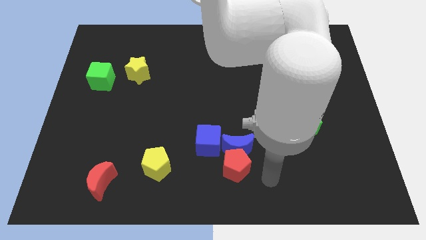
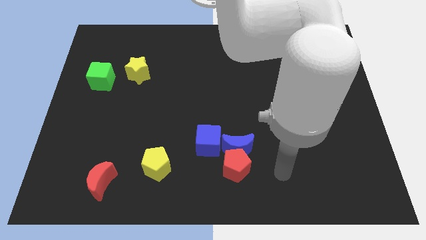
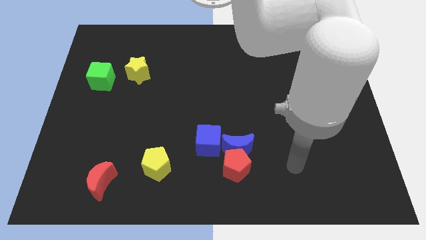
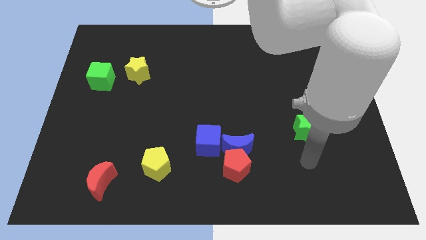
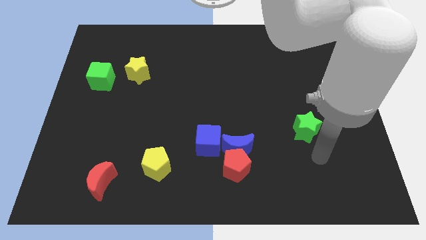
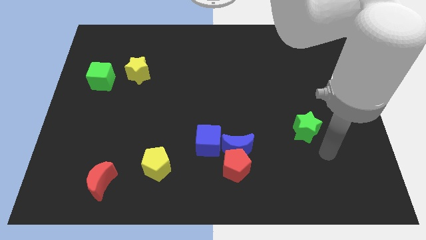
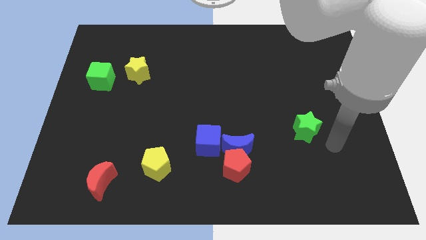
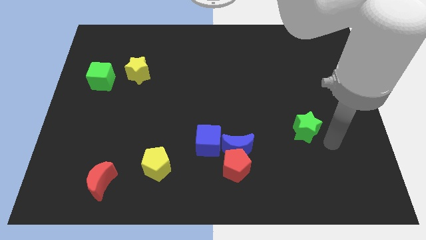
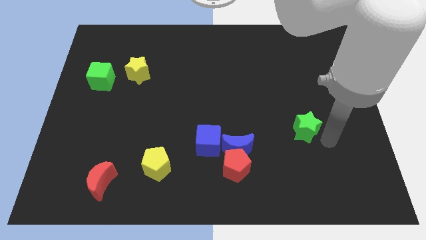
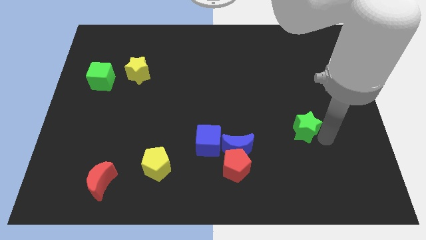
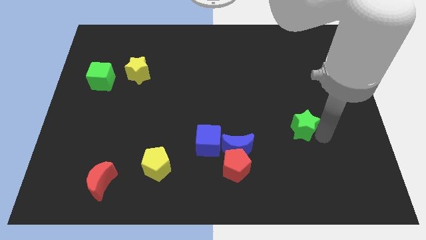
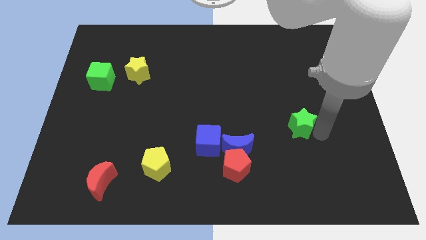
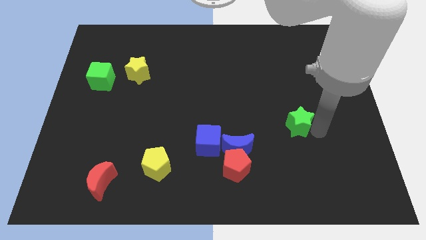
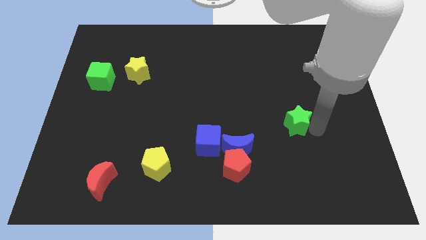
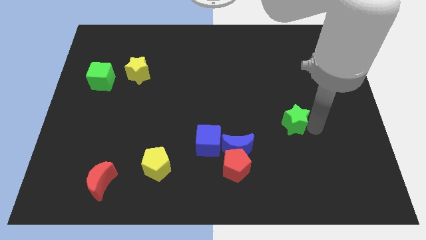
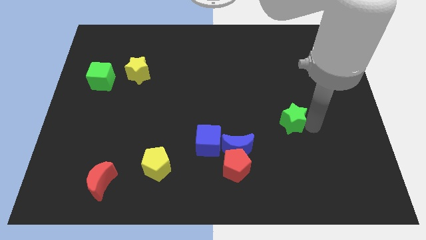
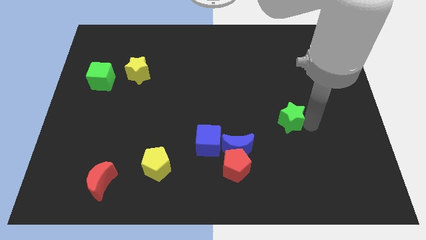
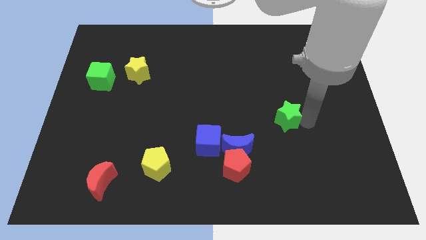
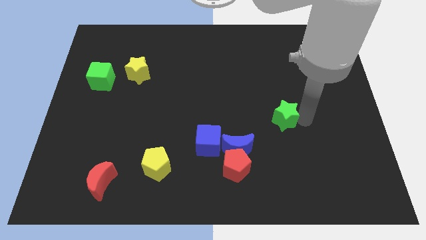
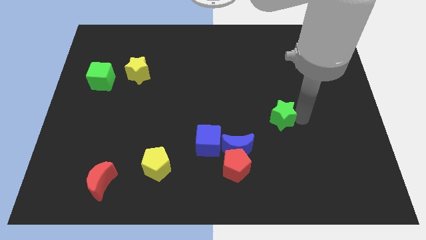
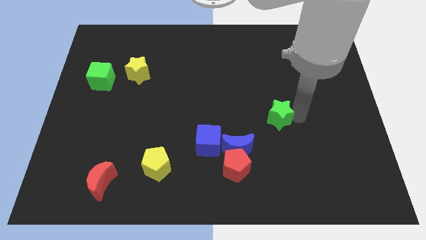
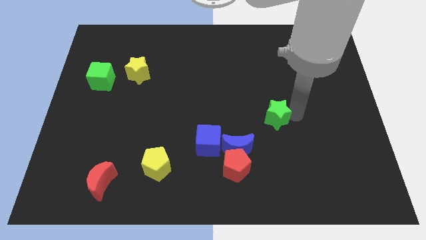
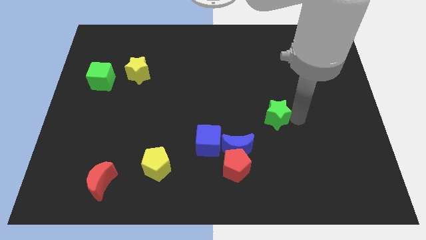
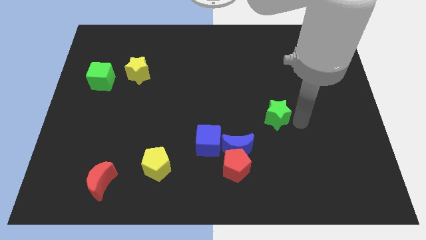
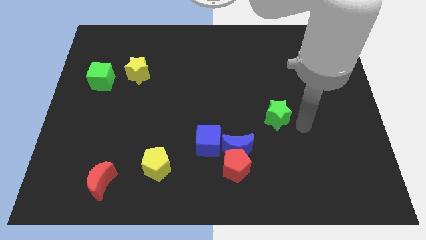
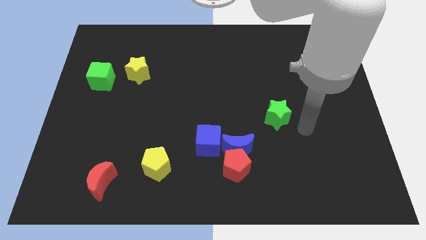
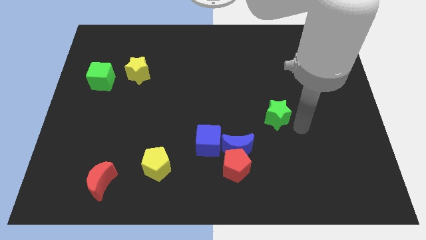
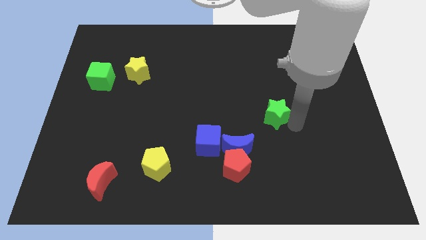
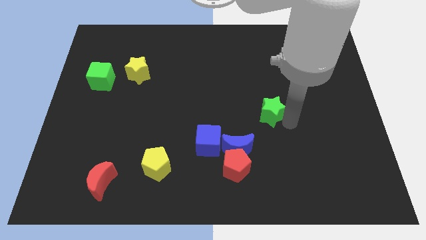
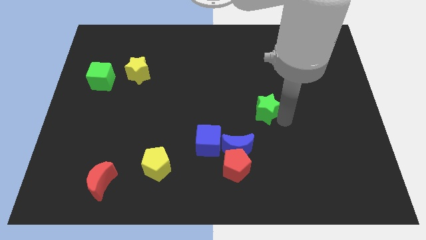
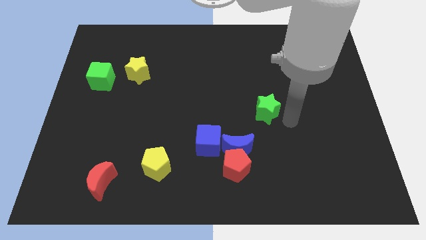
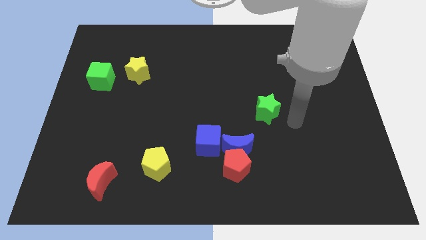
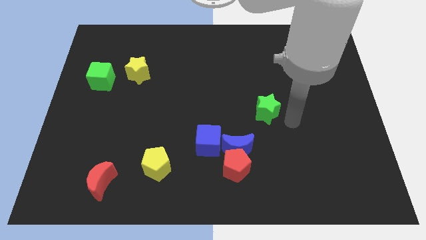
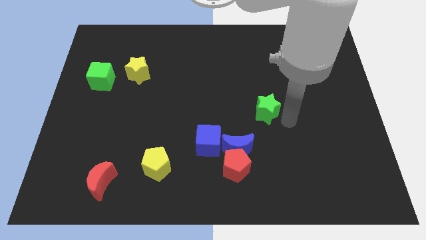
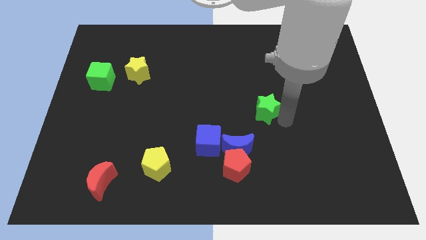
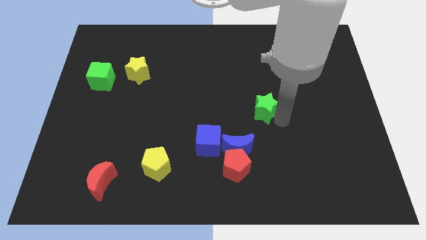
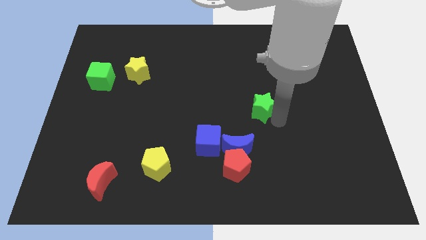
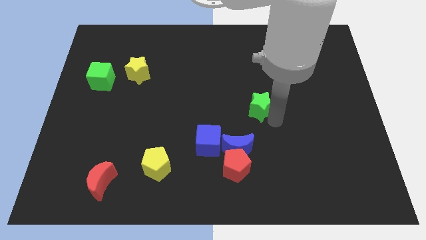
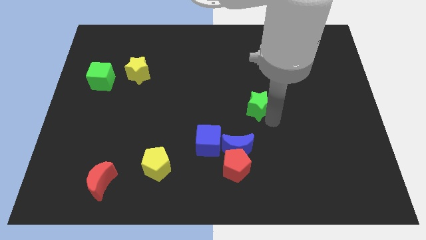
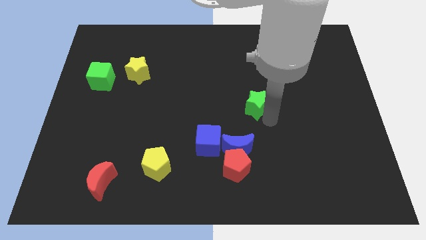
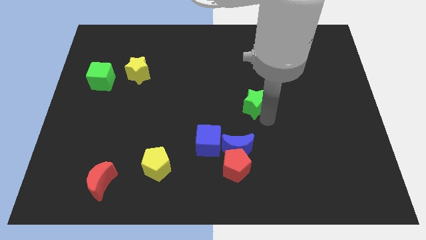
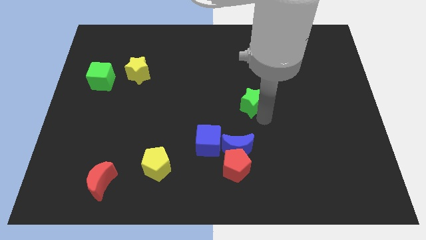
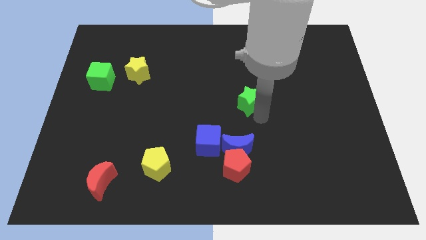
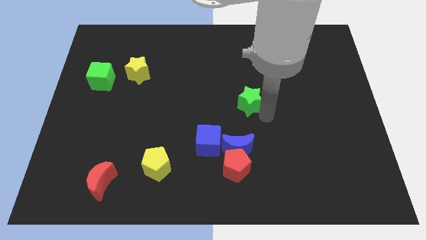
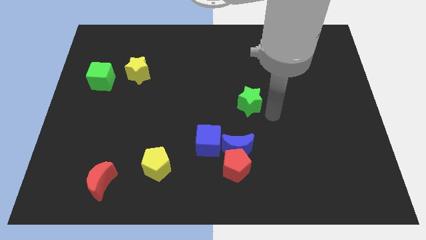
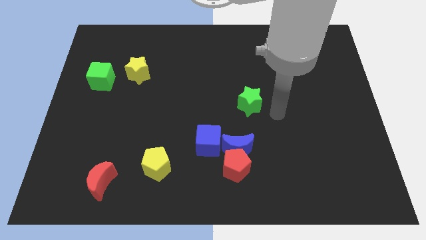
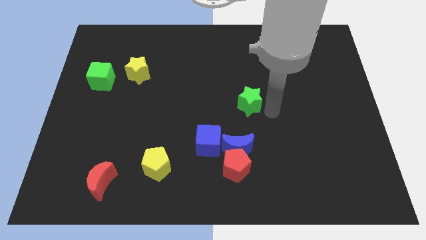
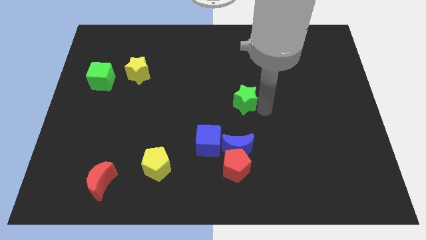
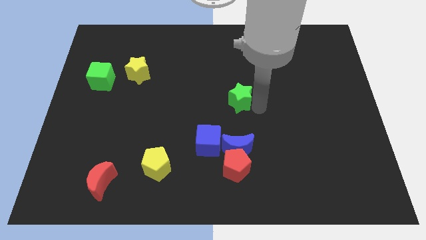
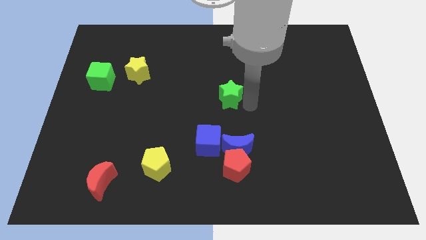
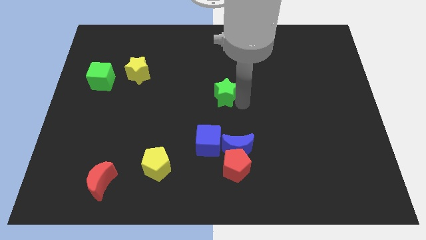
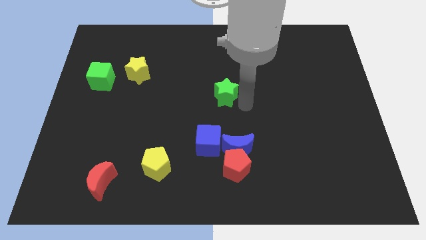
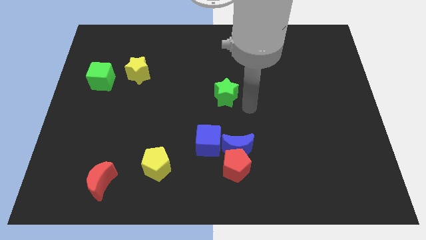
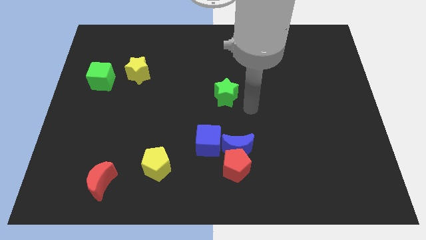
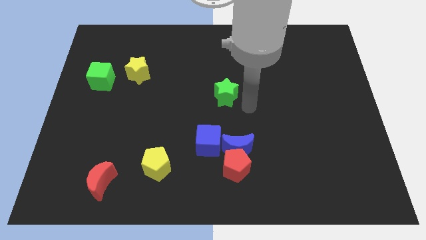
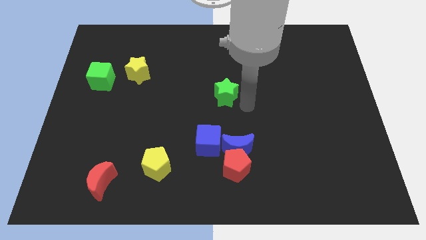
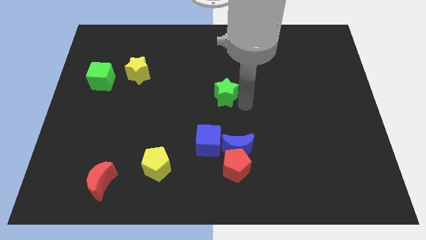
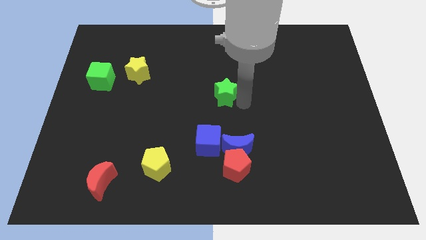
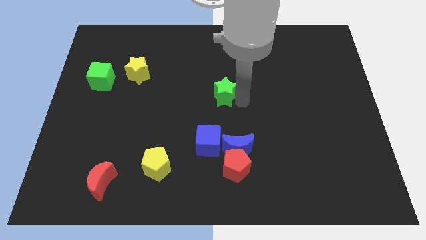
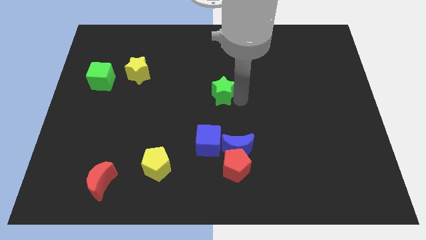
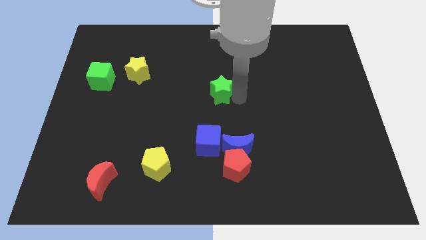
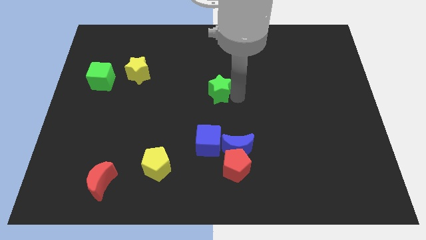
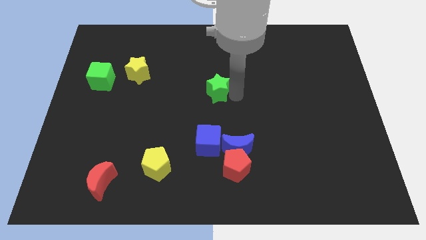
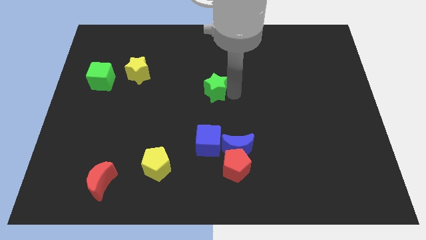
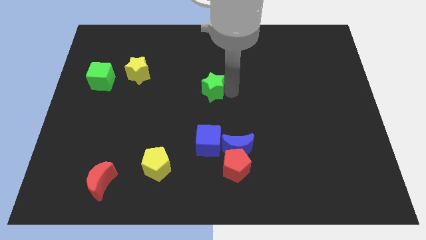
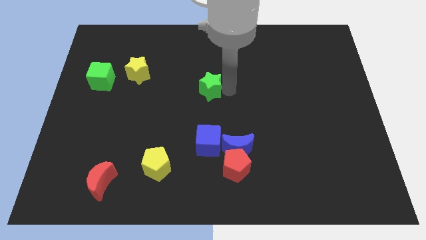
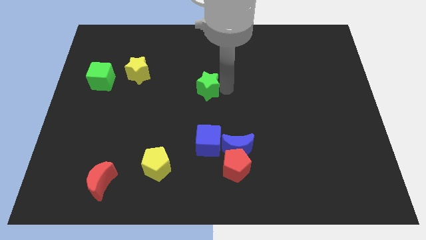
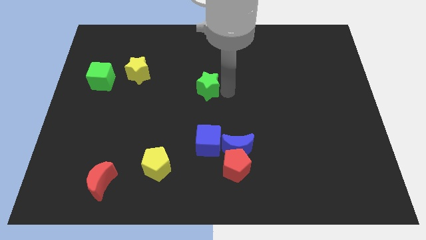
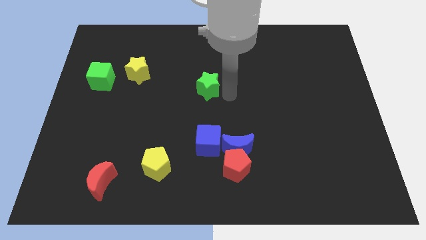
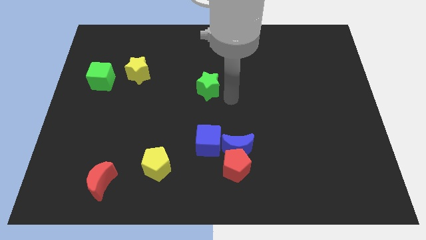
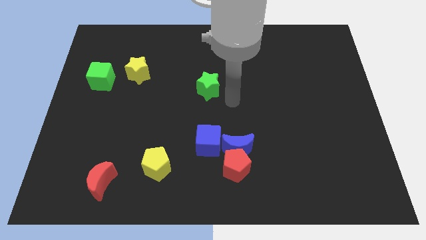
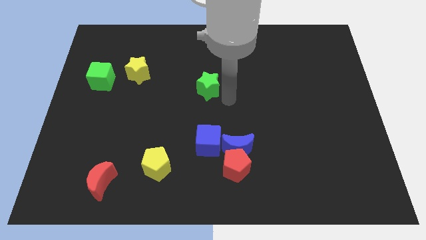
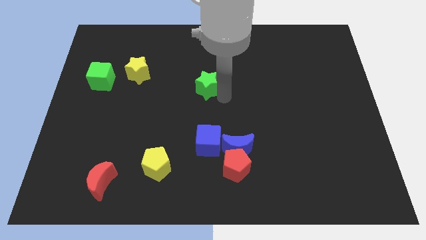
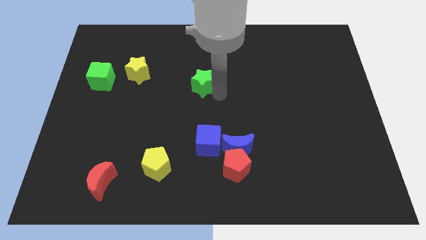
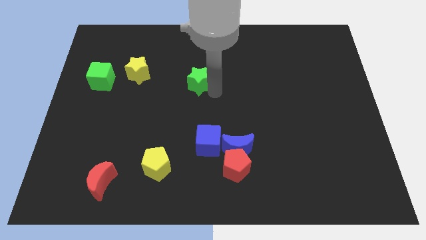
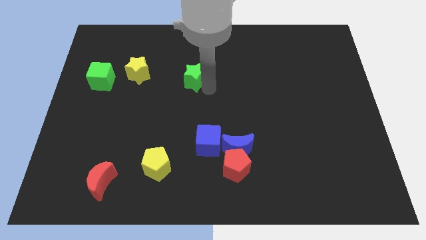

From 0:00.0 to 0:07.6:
push the green star to the right side of the yellow star
